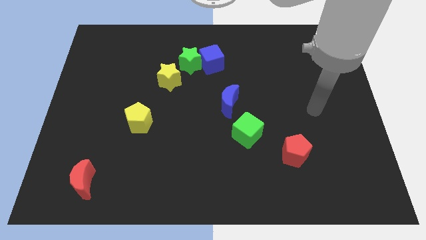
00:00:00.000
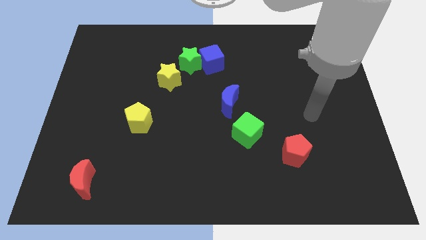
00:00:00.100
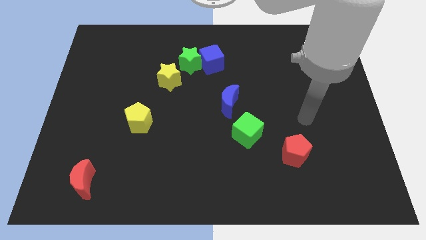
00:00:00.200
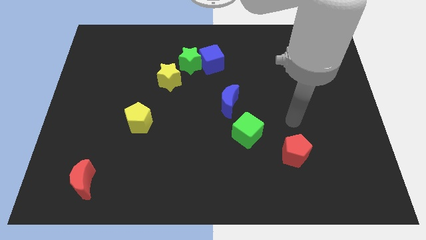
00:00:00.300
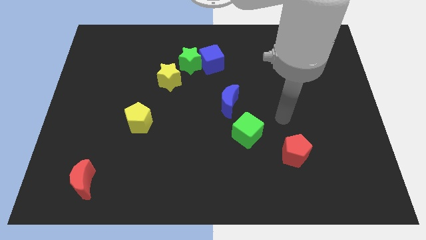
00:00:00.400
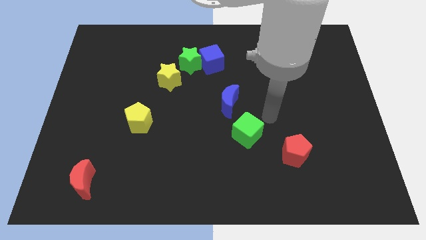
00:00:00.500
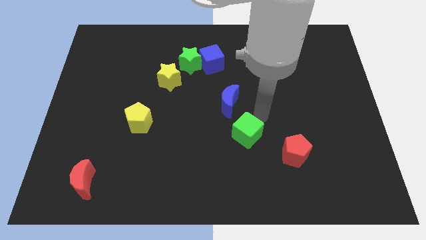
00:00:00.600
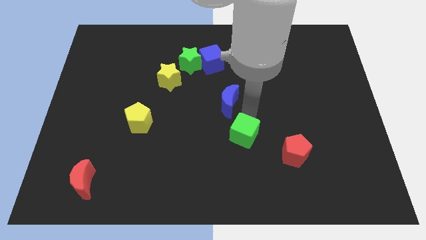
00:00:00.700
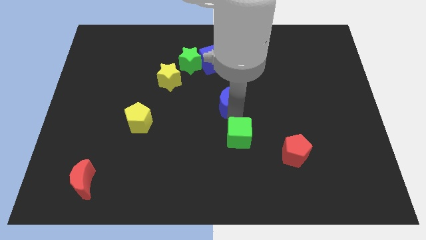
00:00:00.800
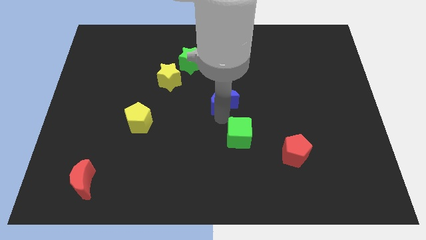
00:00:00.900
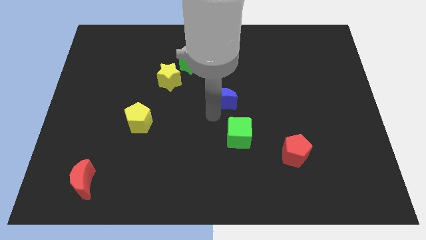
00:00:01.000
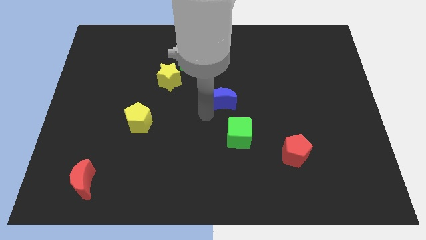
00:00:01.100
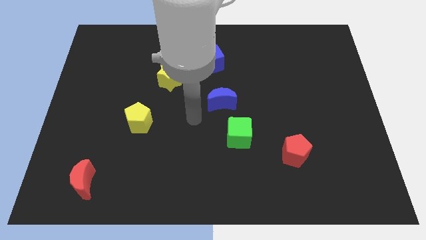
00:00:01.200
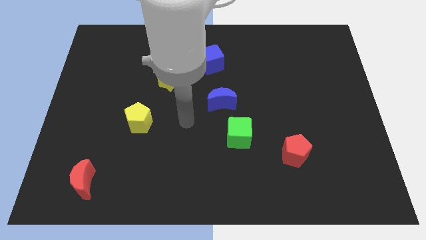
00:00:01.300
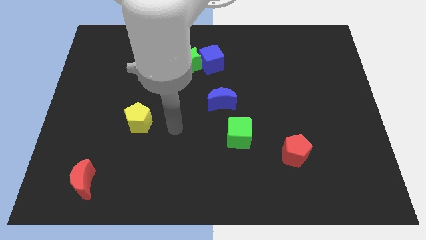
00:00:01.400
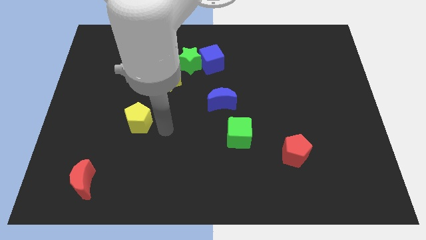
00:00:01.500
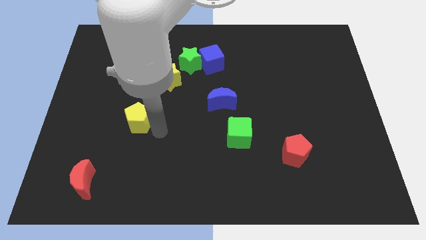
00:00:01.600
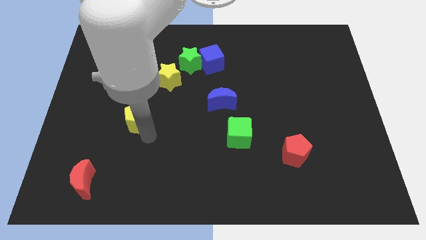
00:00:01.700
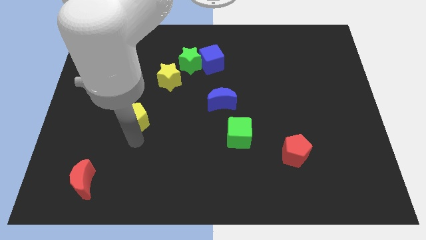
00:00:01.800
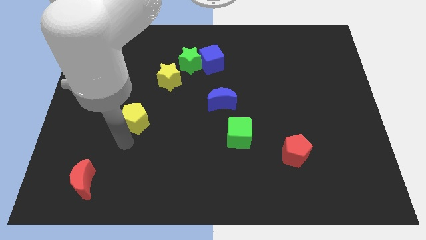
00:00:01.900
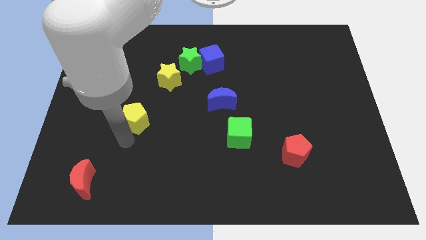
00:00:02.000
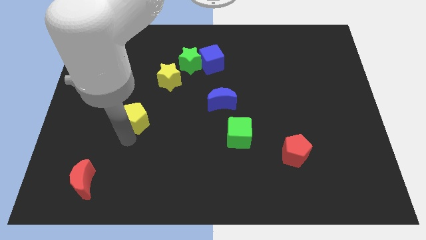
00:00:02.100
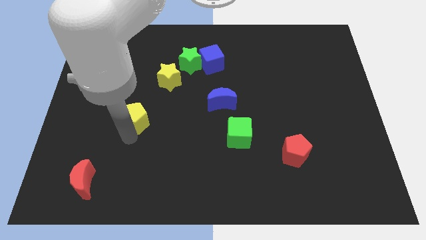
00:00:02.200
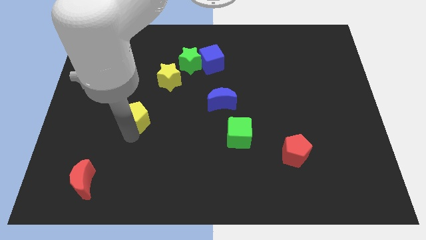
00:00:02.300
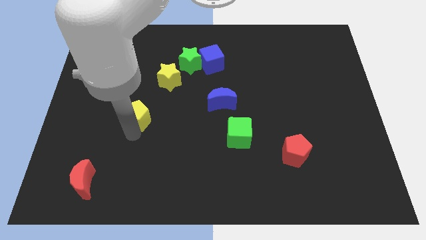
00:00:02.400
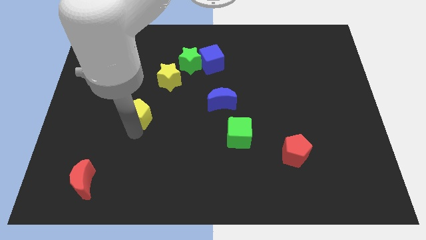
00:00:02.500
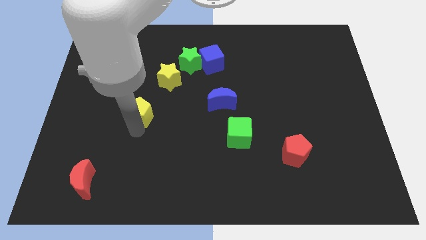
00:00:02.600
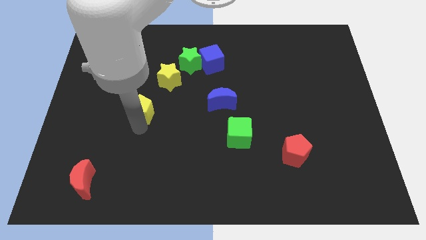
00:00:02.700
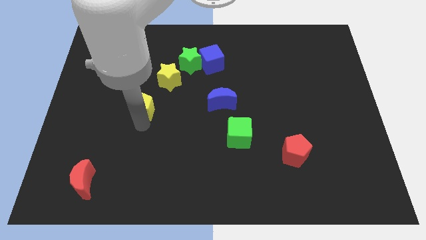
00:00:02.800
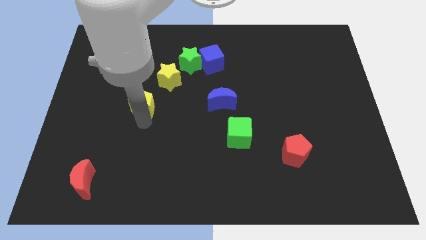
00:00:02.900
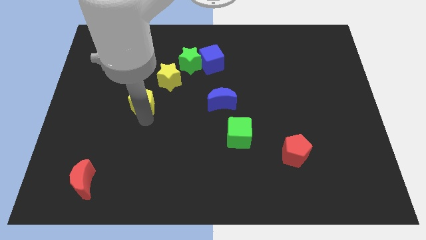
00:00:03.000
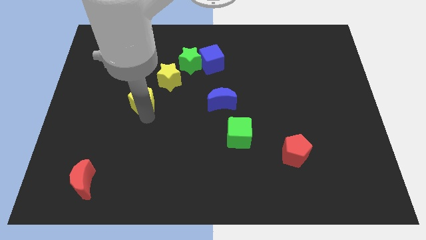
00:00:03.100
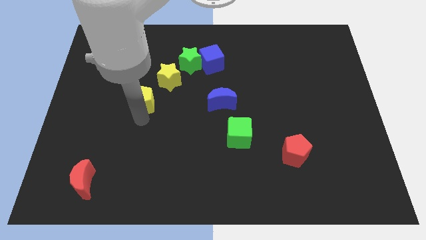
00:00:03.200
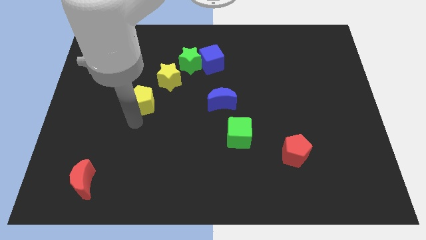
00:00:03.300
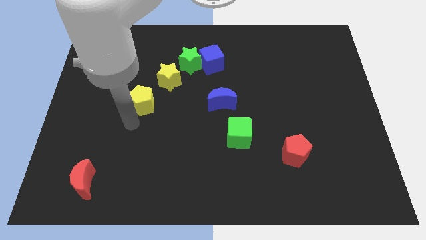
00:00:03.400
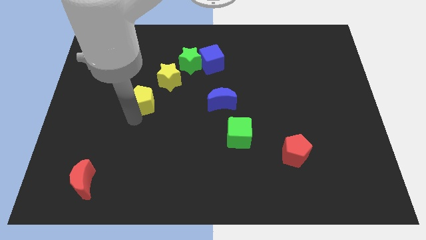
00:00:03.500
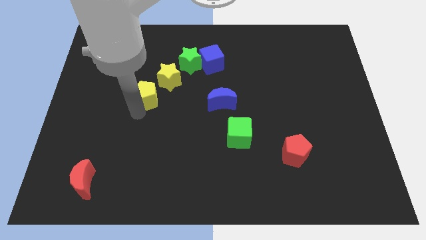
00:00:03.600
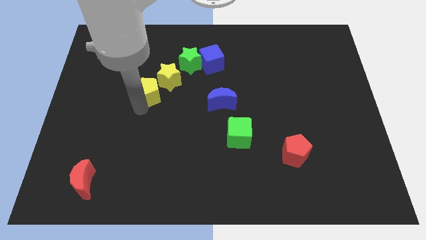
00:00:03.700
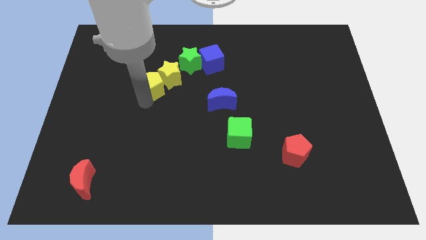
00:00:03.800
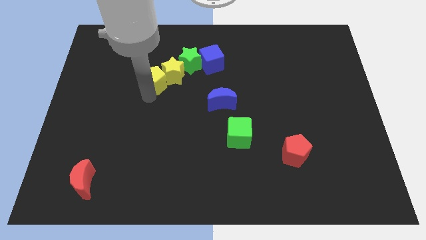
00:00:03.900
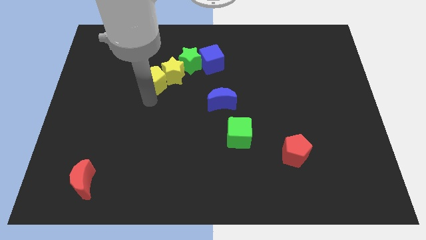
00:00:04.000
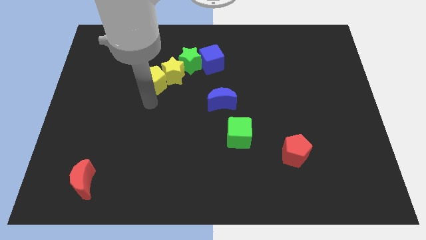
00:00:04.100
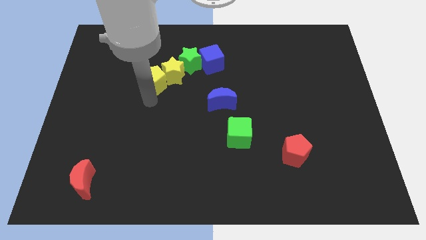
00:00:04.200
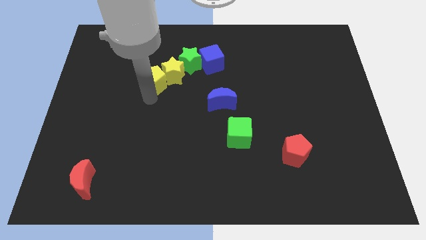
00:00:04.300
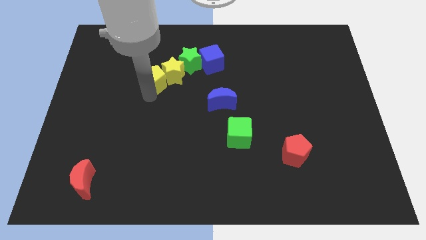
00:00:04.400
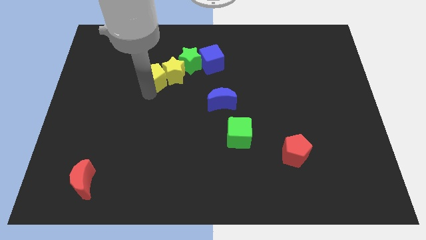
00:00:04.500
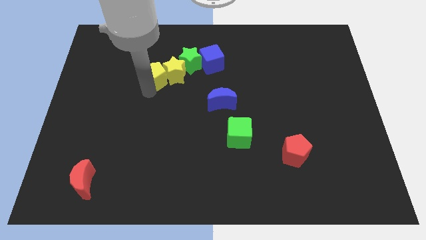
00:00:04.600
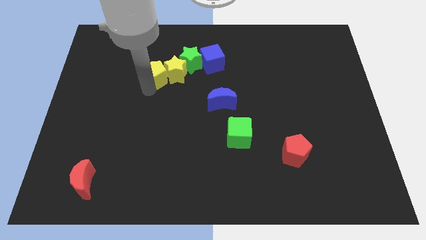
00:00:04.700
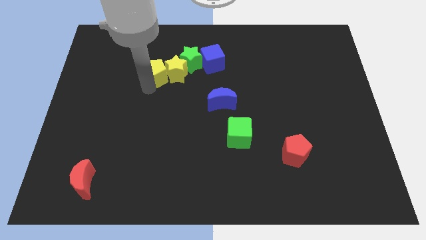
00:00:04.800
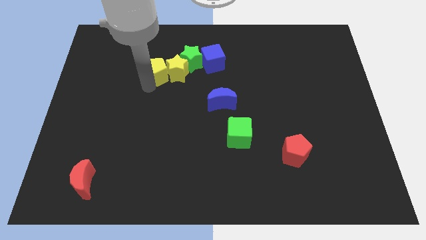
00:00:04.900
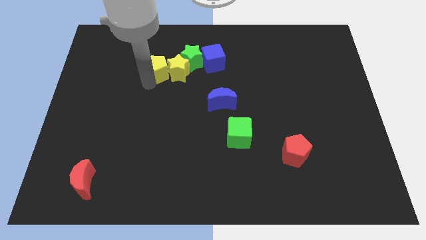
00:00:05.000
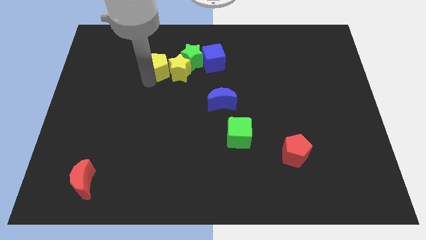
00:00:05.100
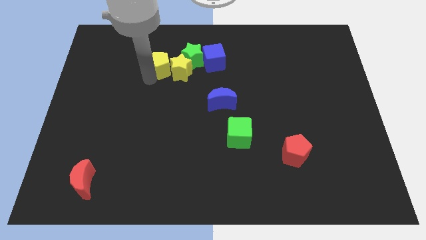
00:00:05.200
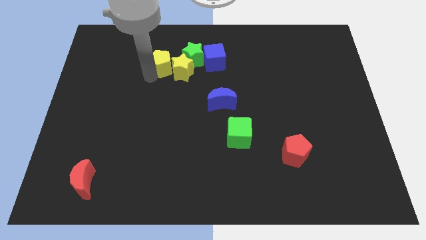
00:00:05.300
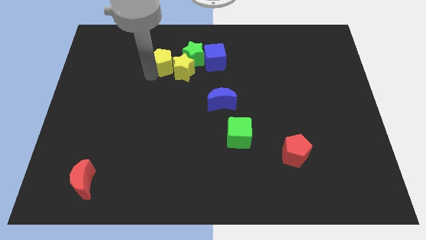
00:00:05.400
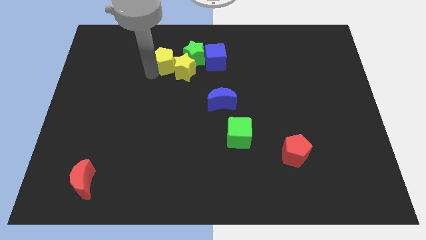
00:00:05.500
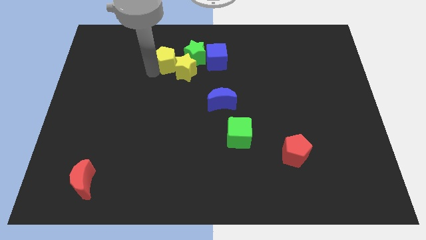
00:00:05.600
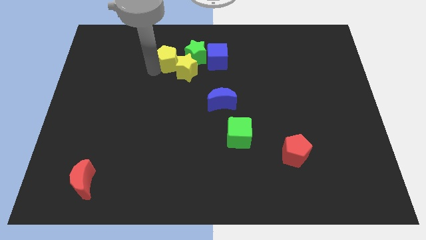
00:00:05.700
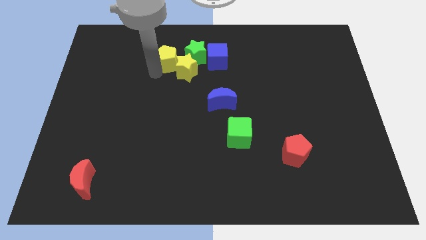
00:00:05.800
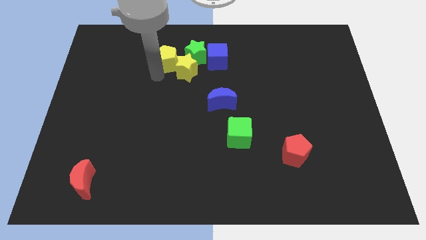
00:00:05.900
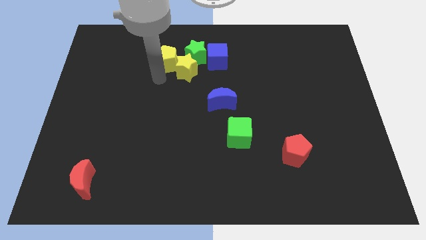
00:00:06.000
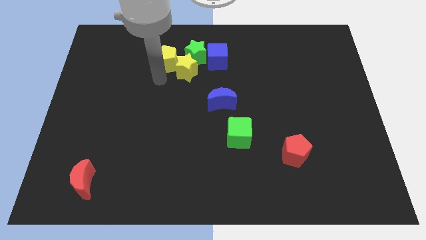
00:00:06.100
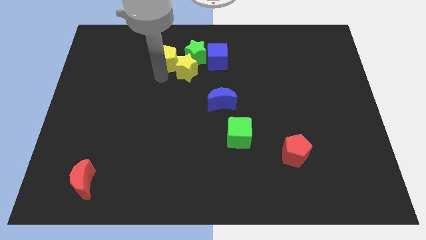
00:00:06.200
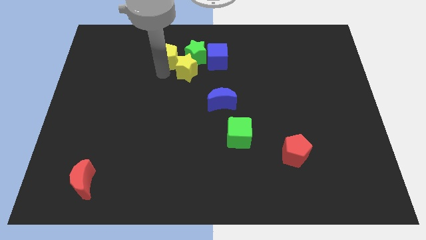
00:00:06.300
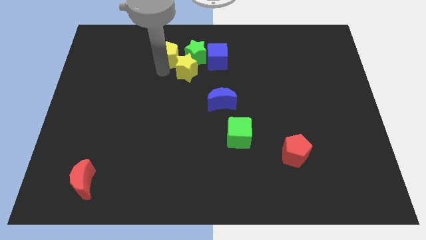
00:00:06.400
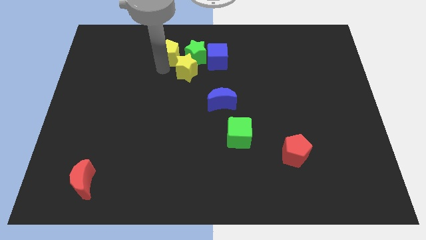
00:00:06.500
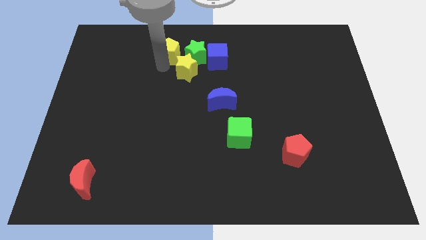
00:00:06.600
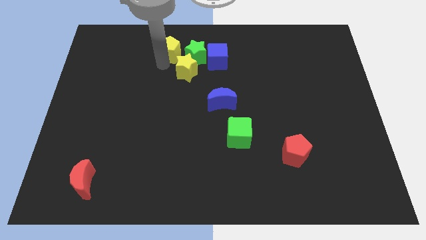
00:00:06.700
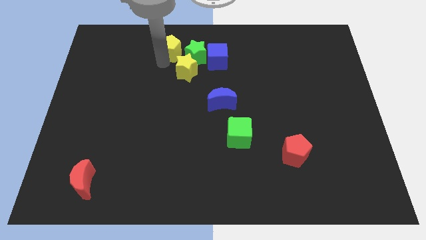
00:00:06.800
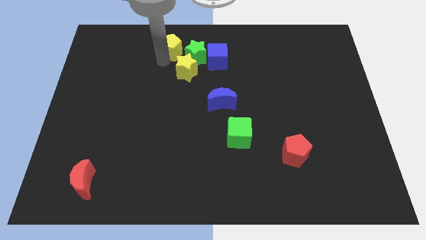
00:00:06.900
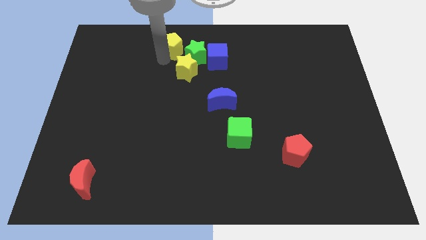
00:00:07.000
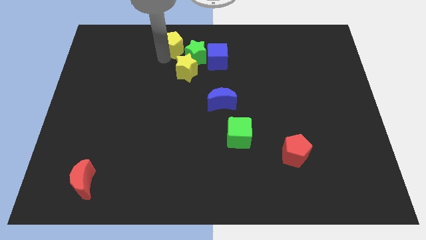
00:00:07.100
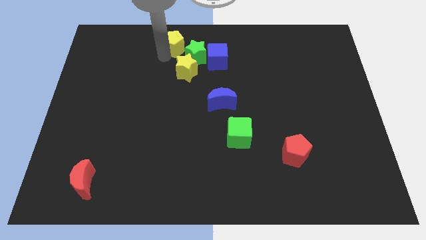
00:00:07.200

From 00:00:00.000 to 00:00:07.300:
push the yellow pentagon to the top side

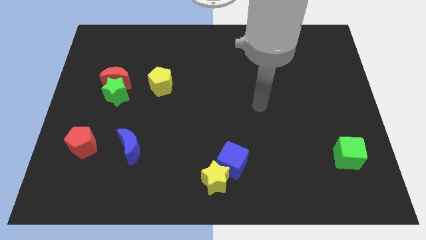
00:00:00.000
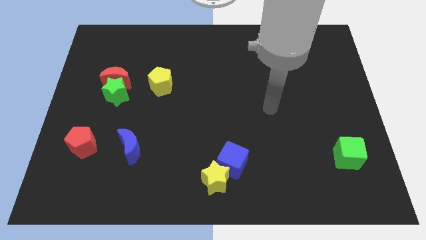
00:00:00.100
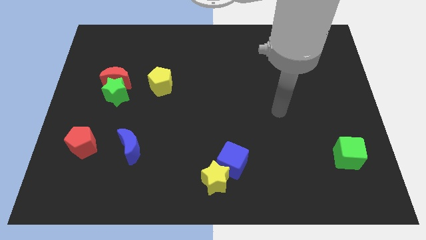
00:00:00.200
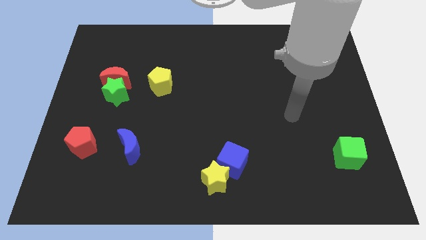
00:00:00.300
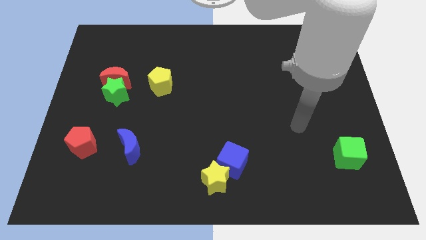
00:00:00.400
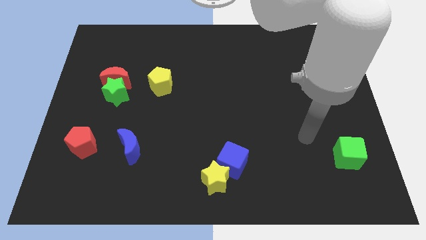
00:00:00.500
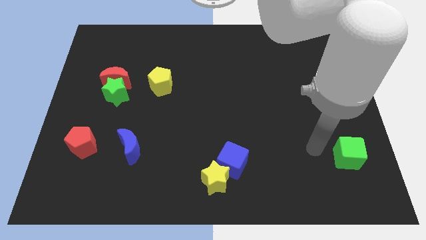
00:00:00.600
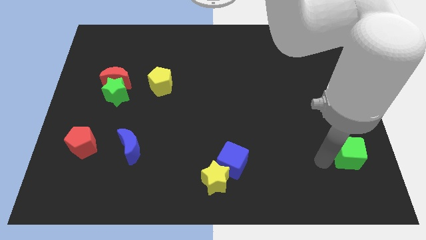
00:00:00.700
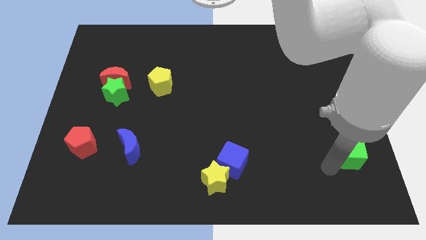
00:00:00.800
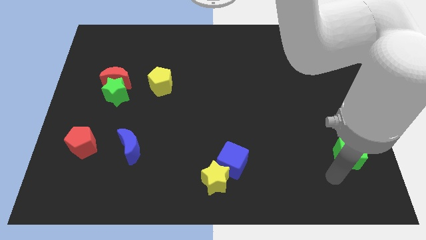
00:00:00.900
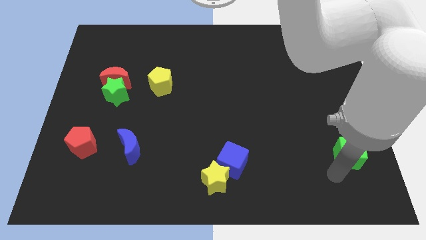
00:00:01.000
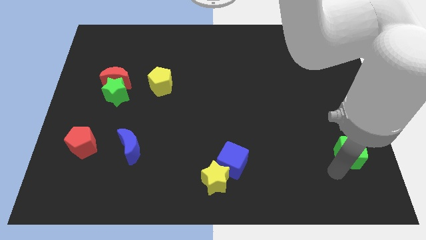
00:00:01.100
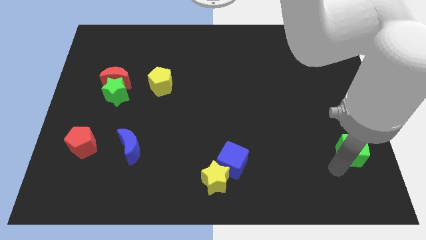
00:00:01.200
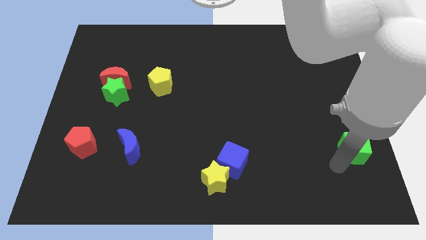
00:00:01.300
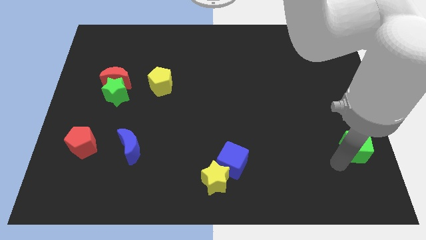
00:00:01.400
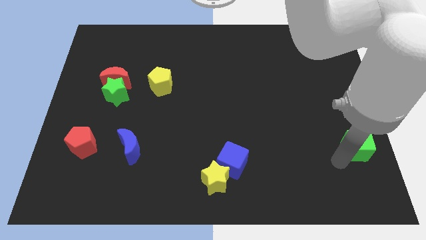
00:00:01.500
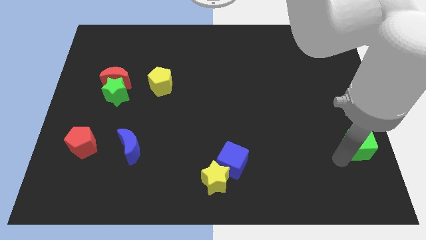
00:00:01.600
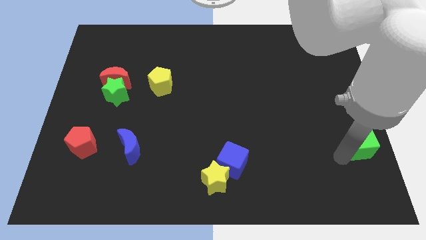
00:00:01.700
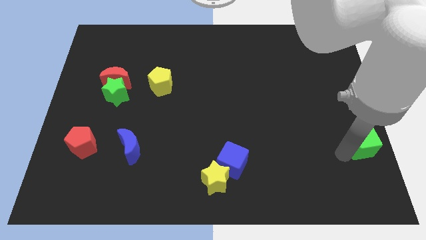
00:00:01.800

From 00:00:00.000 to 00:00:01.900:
push the green cube to the right side of the board
